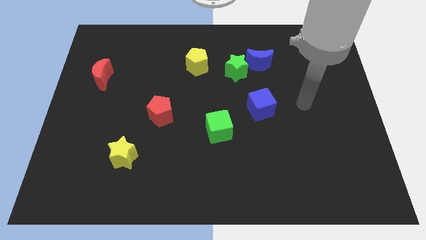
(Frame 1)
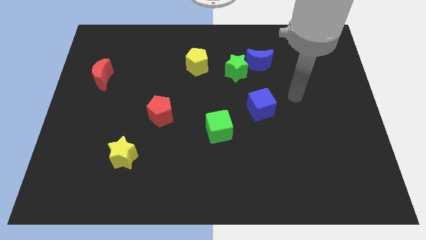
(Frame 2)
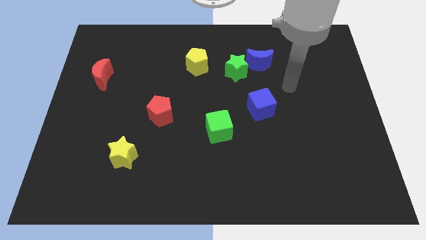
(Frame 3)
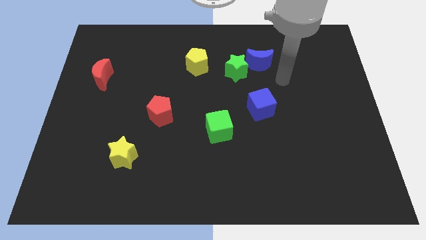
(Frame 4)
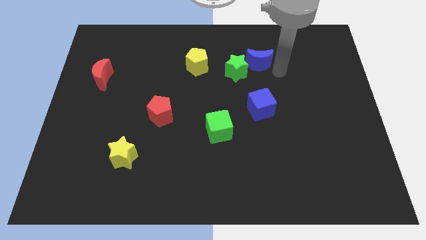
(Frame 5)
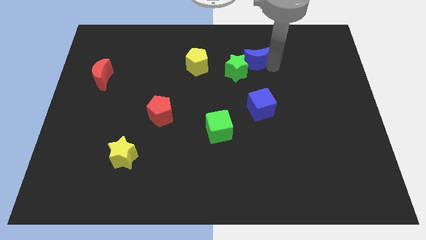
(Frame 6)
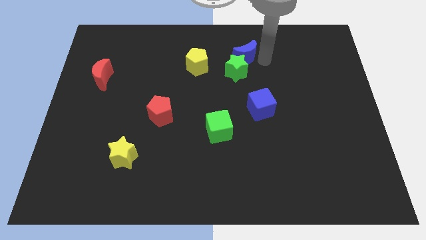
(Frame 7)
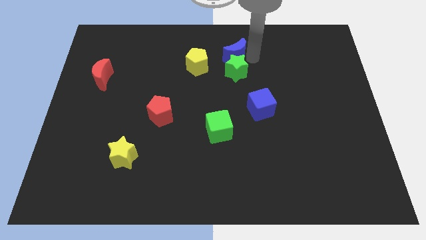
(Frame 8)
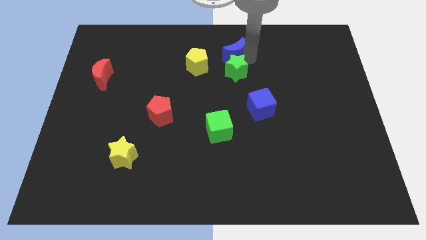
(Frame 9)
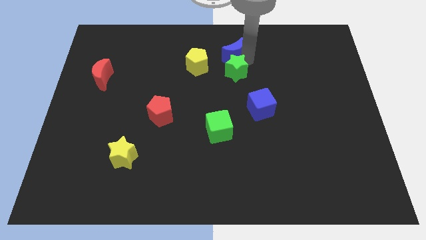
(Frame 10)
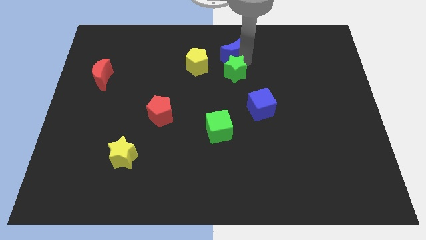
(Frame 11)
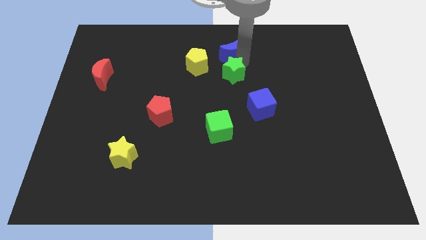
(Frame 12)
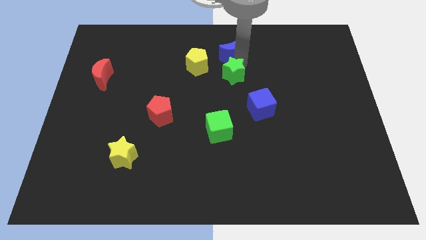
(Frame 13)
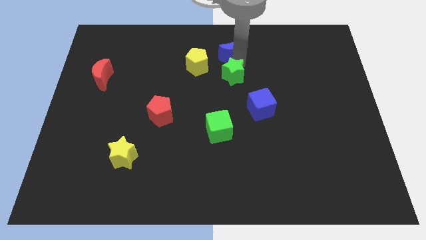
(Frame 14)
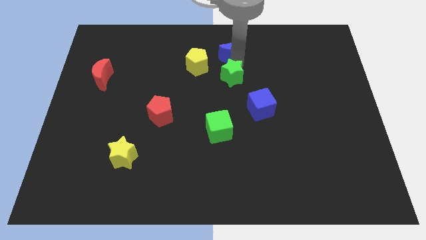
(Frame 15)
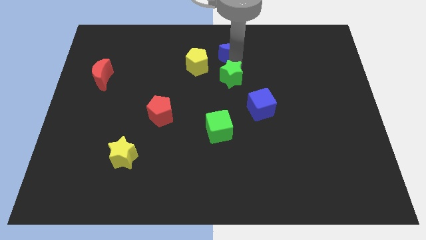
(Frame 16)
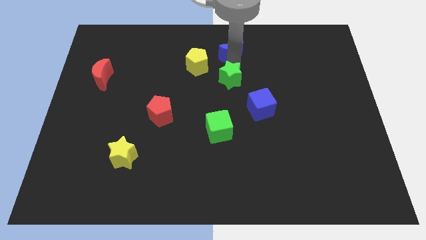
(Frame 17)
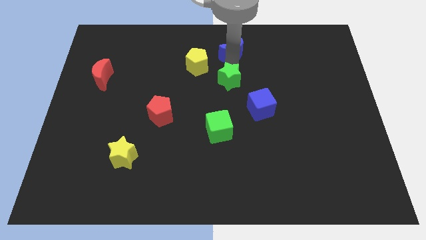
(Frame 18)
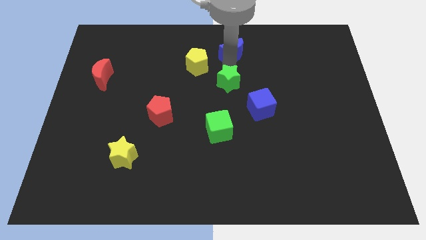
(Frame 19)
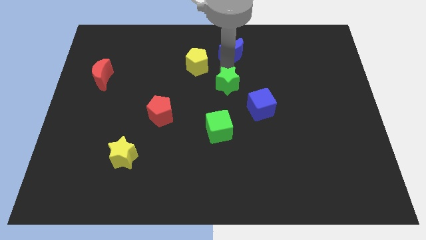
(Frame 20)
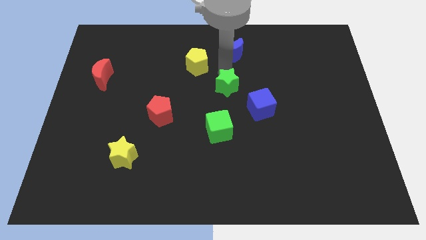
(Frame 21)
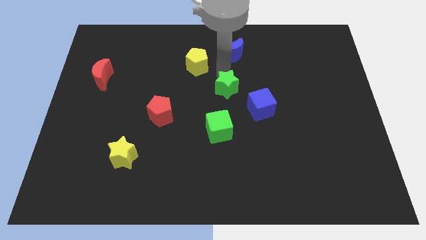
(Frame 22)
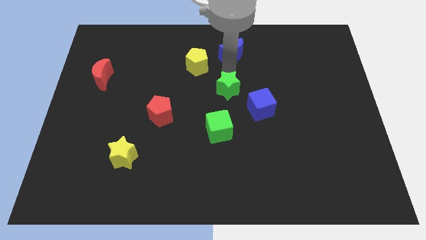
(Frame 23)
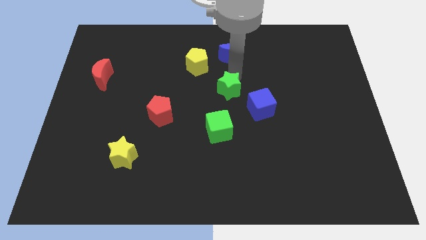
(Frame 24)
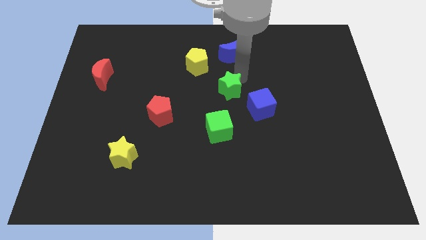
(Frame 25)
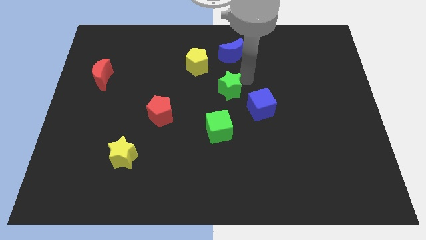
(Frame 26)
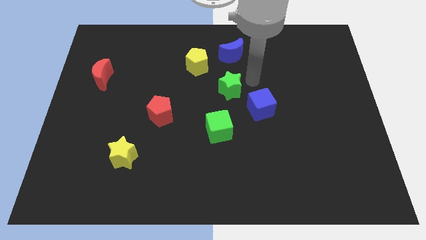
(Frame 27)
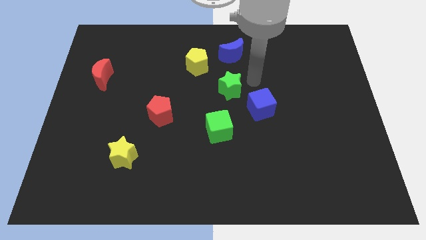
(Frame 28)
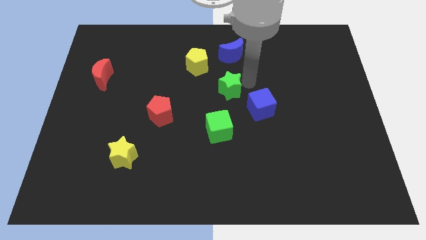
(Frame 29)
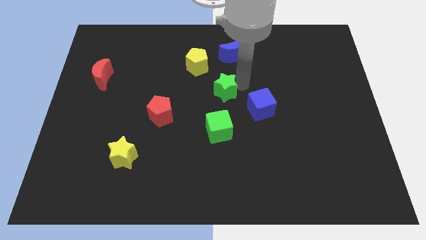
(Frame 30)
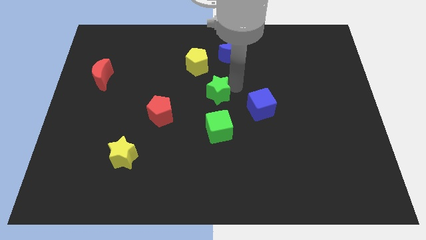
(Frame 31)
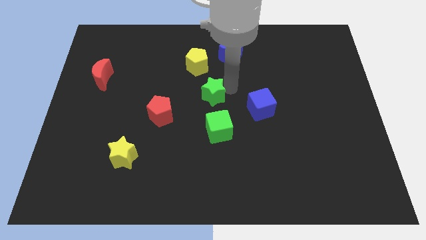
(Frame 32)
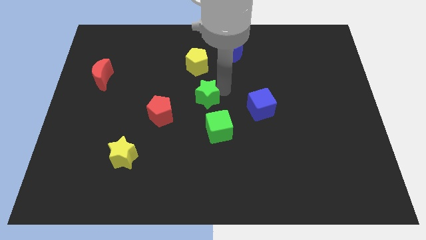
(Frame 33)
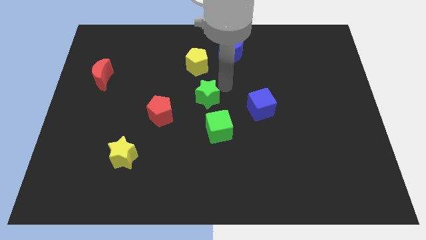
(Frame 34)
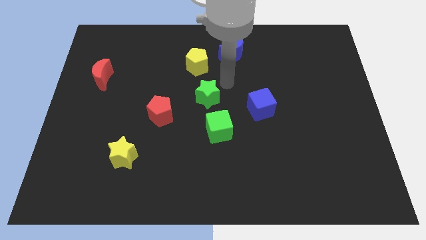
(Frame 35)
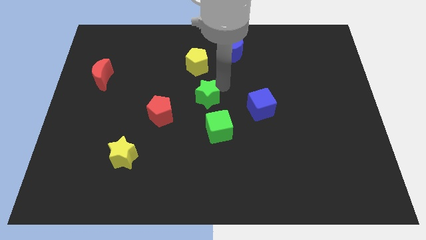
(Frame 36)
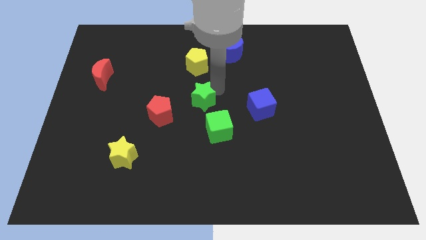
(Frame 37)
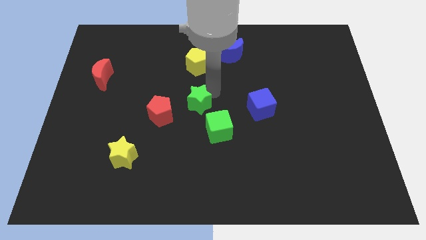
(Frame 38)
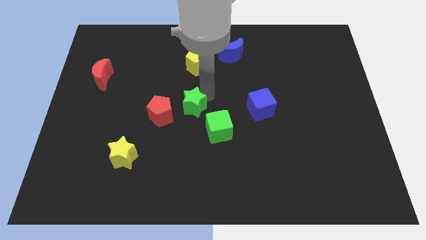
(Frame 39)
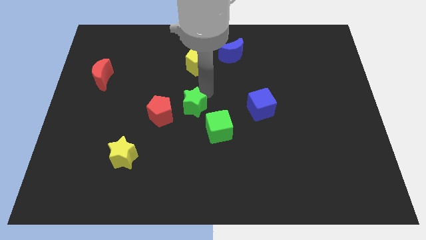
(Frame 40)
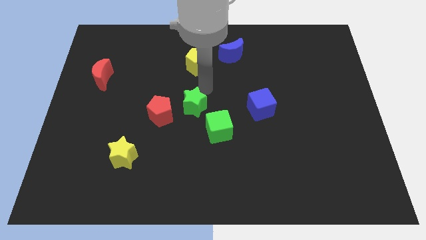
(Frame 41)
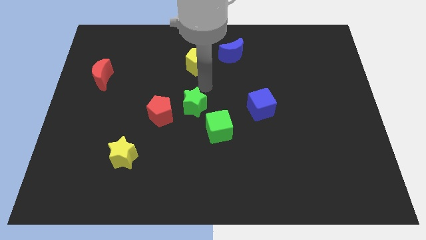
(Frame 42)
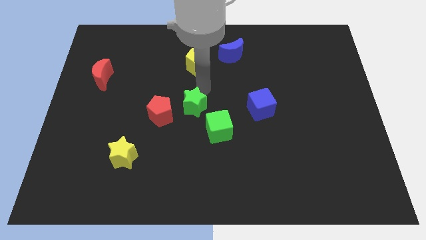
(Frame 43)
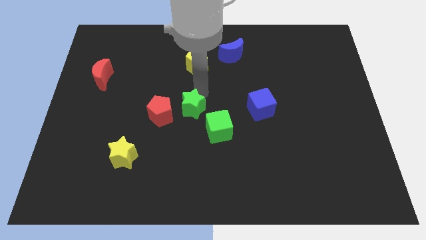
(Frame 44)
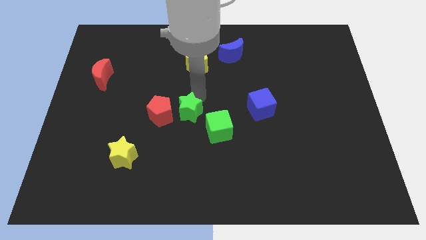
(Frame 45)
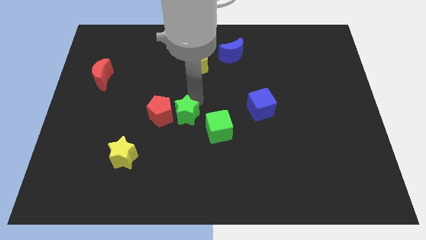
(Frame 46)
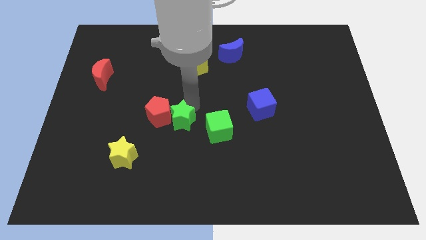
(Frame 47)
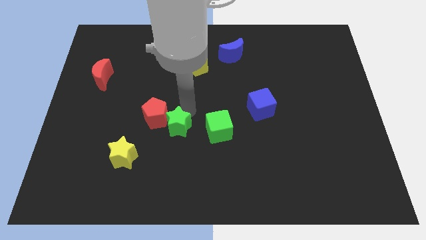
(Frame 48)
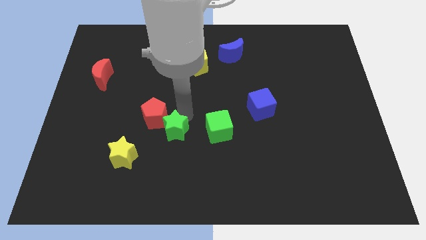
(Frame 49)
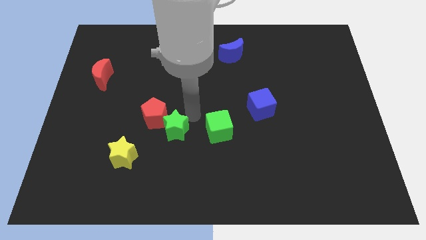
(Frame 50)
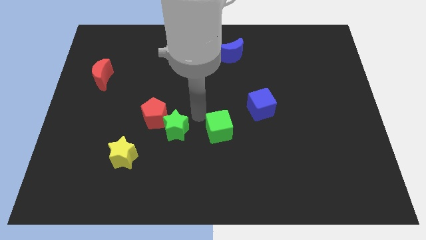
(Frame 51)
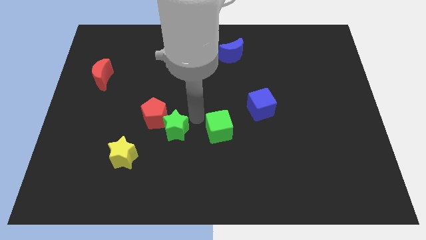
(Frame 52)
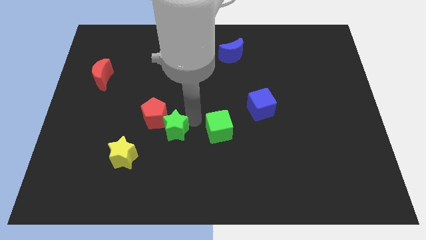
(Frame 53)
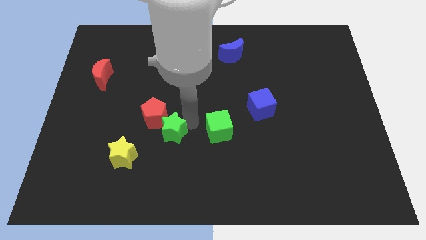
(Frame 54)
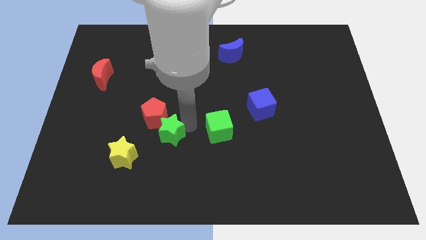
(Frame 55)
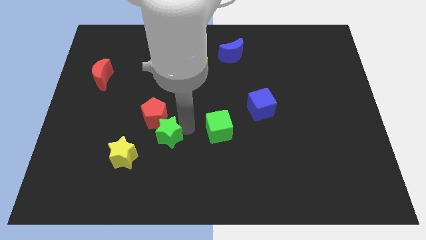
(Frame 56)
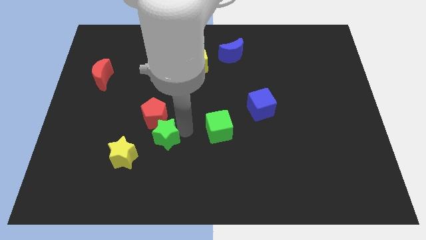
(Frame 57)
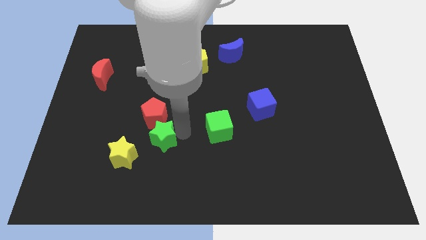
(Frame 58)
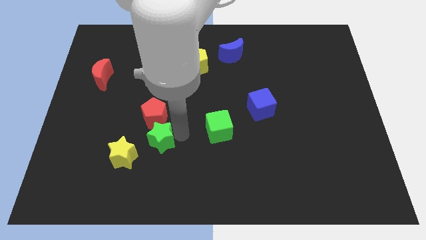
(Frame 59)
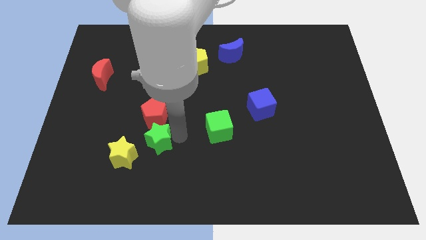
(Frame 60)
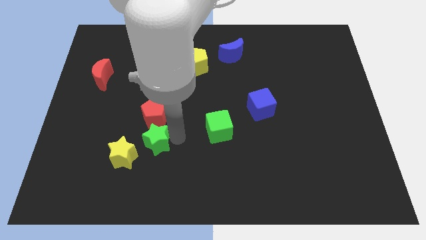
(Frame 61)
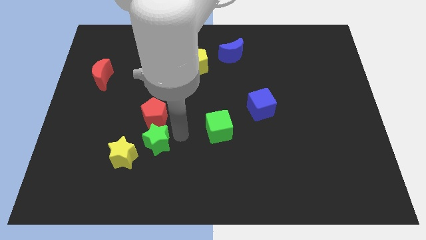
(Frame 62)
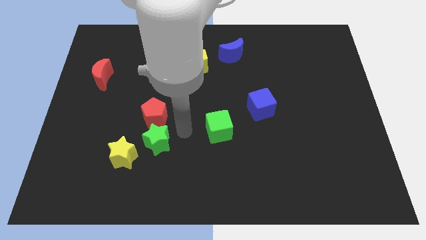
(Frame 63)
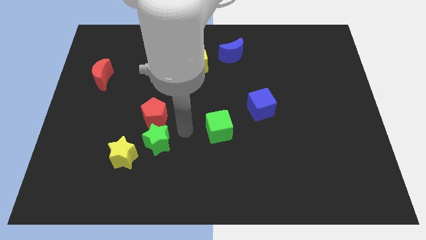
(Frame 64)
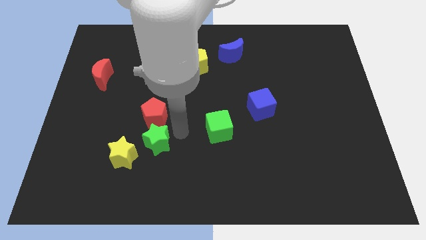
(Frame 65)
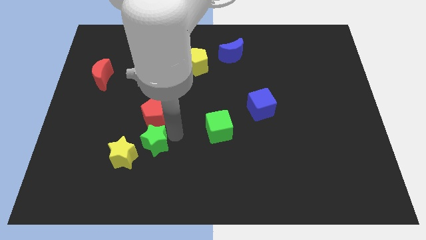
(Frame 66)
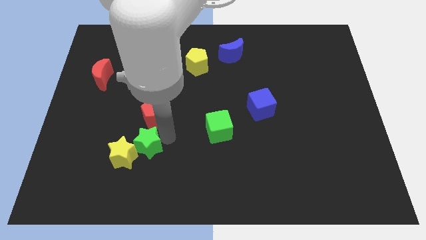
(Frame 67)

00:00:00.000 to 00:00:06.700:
put the green star towards the yellow star
